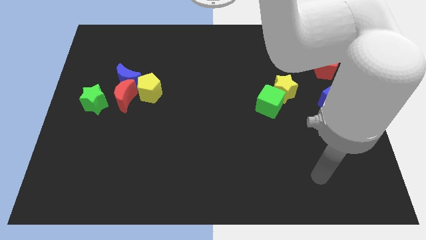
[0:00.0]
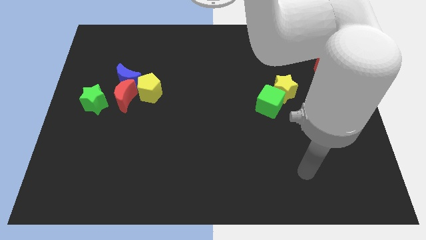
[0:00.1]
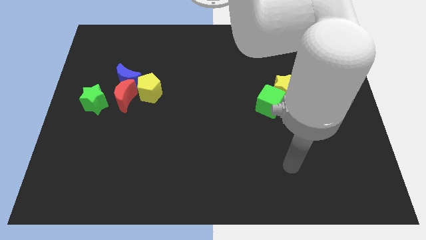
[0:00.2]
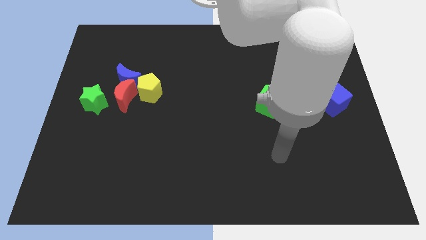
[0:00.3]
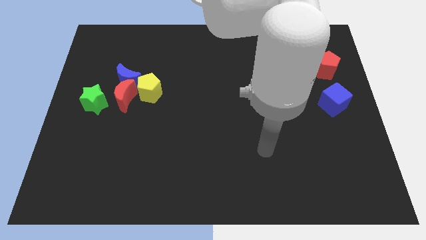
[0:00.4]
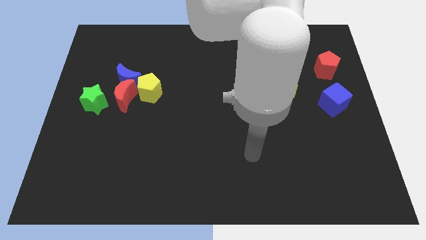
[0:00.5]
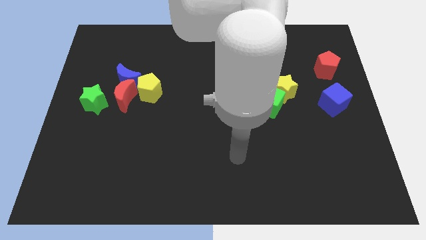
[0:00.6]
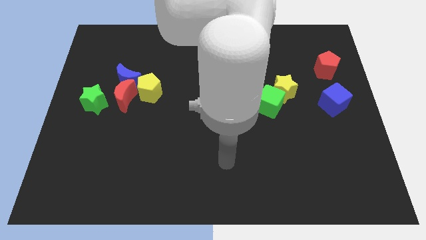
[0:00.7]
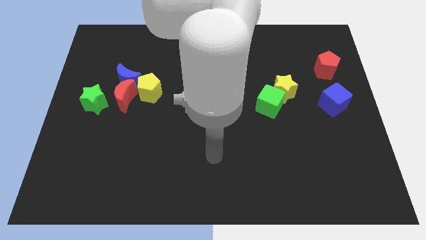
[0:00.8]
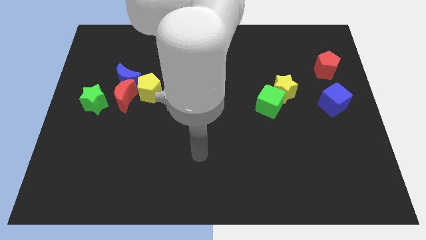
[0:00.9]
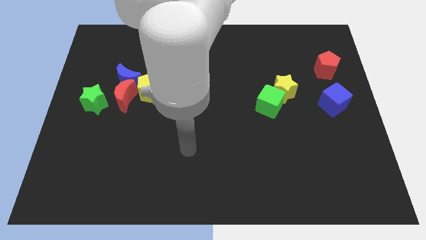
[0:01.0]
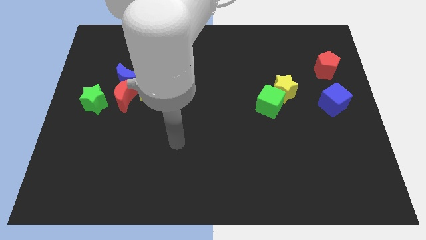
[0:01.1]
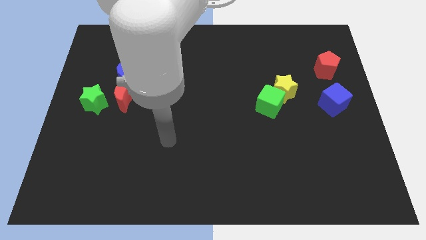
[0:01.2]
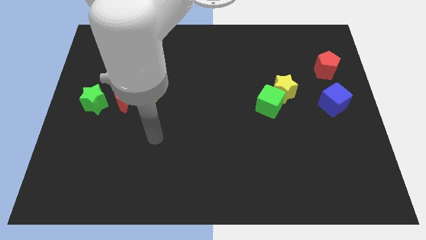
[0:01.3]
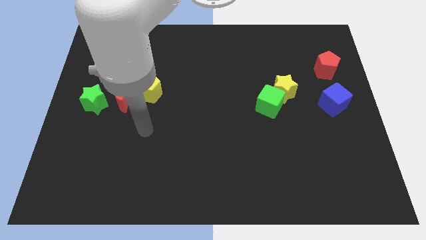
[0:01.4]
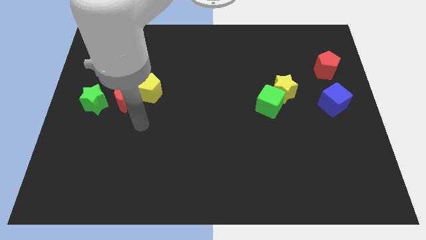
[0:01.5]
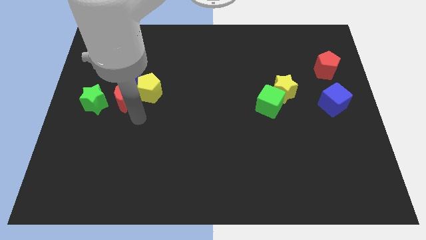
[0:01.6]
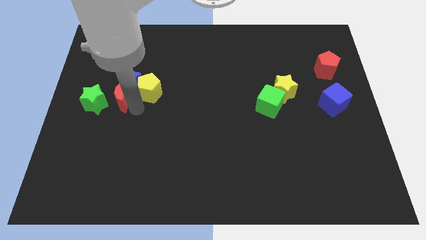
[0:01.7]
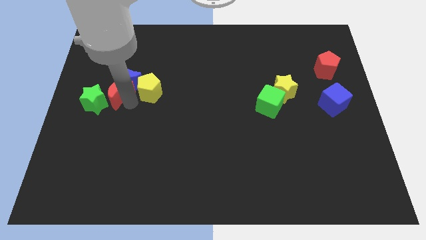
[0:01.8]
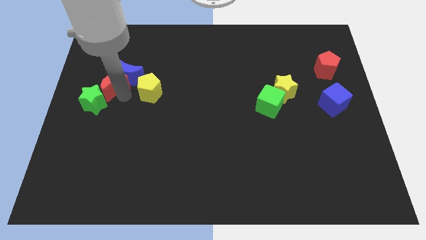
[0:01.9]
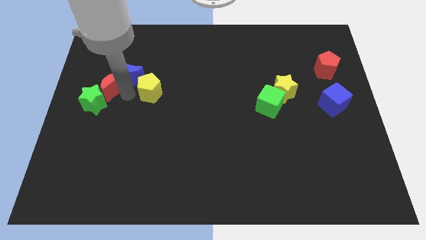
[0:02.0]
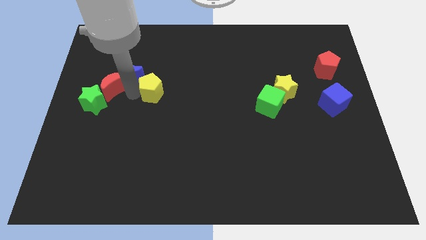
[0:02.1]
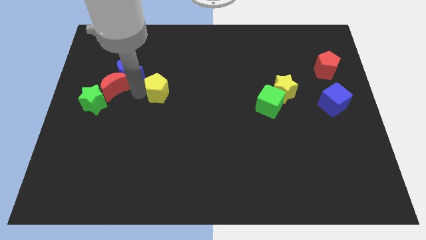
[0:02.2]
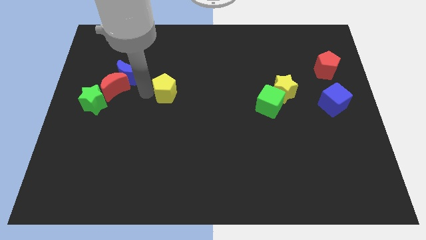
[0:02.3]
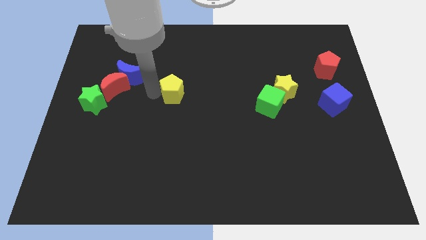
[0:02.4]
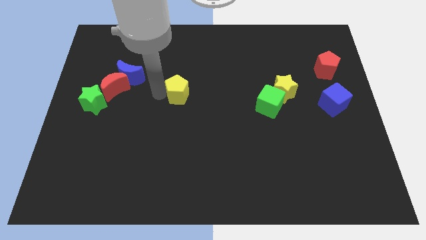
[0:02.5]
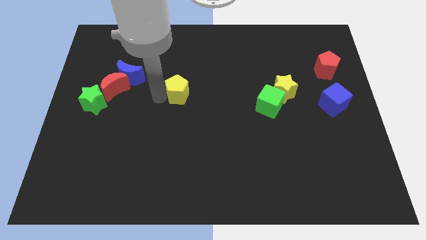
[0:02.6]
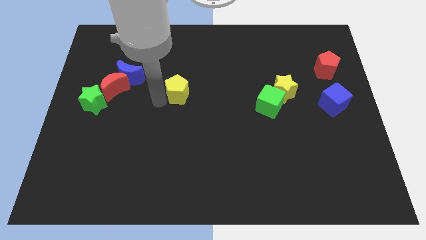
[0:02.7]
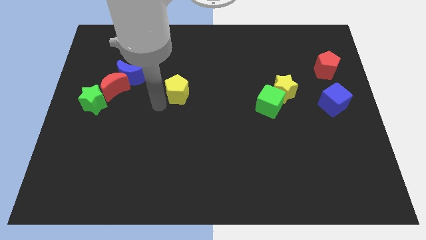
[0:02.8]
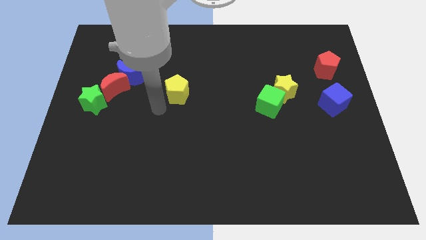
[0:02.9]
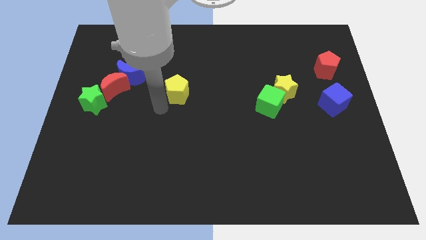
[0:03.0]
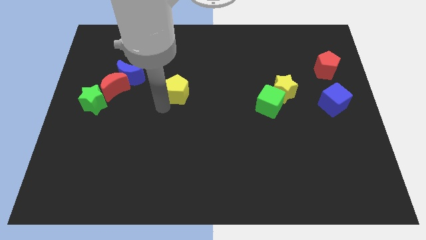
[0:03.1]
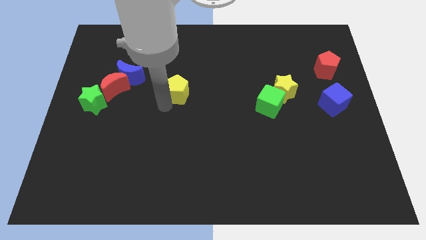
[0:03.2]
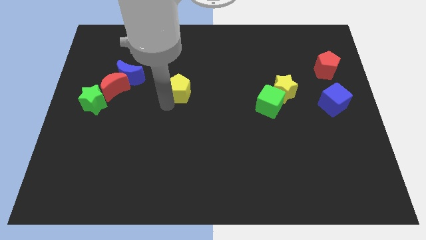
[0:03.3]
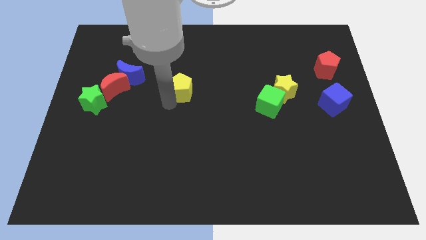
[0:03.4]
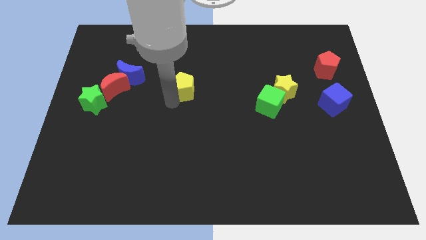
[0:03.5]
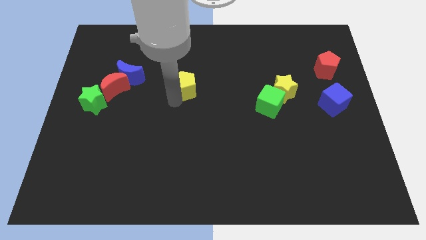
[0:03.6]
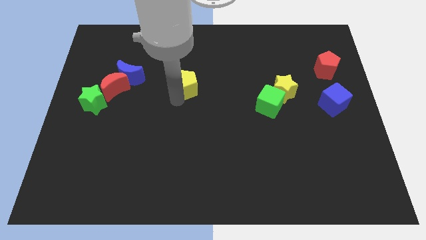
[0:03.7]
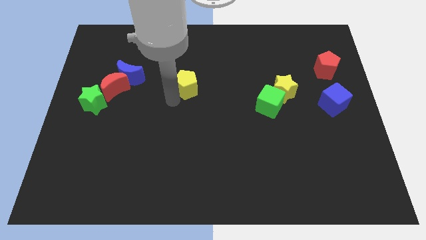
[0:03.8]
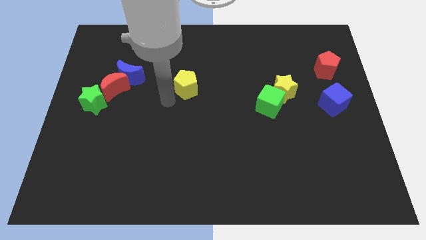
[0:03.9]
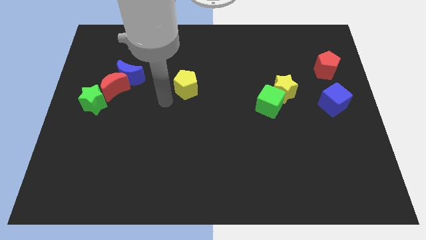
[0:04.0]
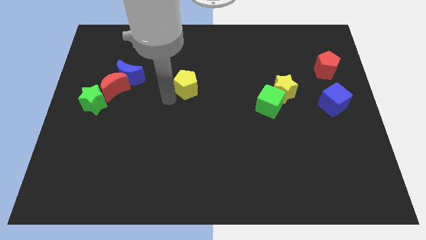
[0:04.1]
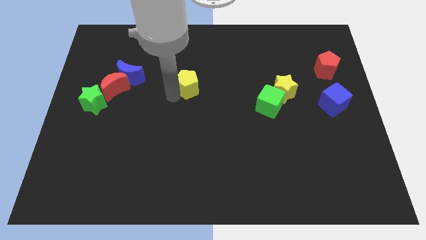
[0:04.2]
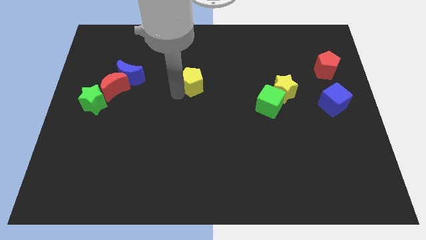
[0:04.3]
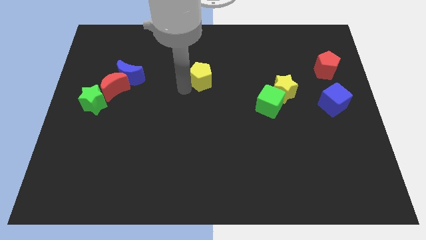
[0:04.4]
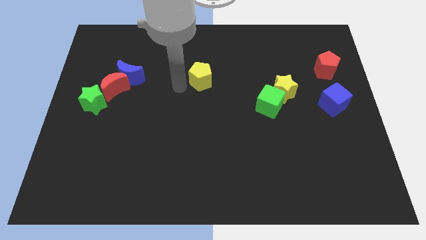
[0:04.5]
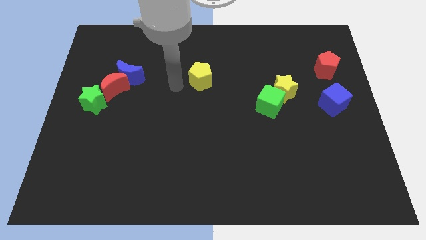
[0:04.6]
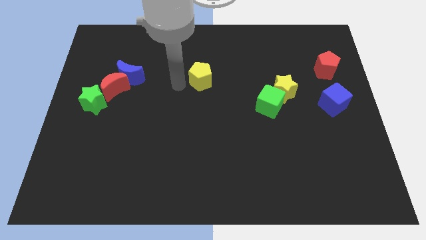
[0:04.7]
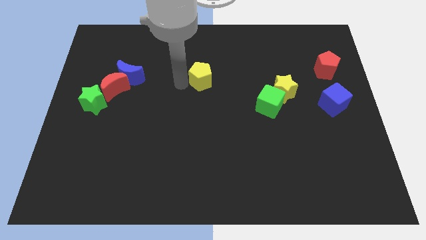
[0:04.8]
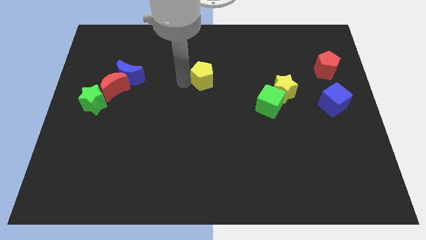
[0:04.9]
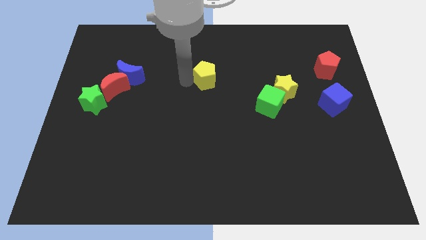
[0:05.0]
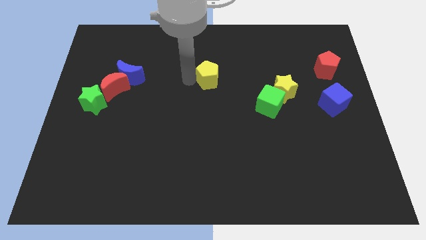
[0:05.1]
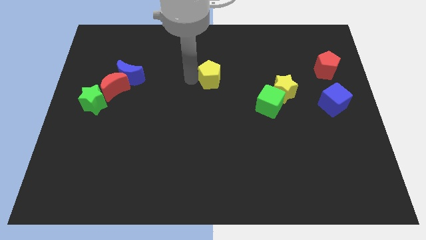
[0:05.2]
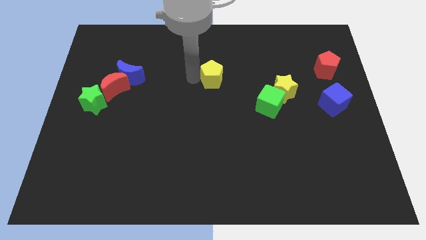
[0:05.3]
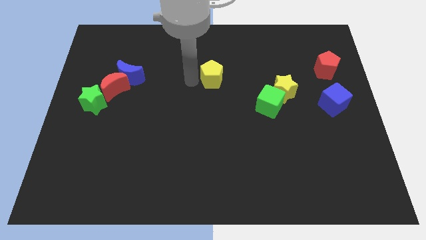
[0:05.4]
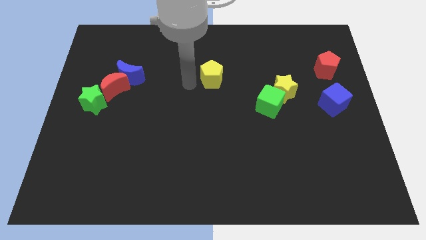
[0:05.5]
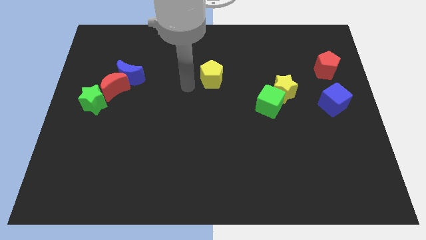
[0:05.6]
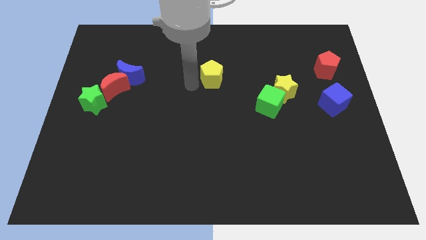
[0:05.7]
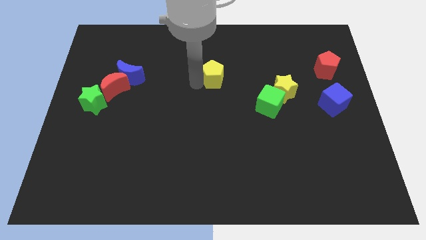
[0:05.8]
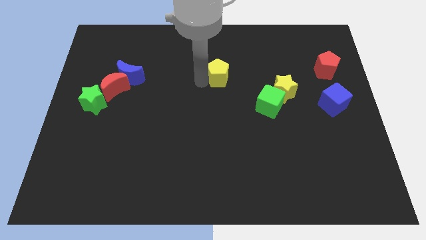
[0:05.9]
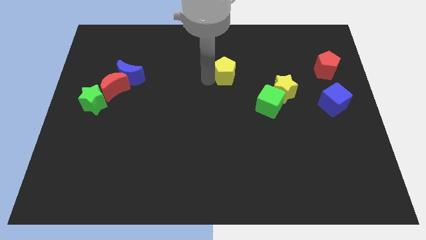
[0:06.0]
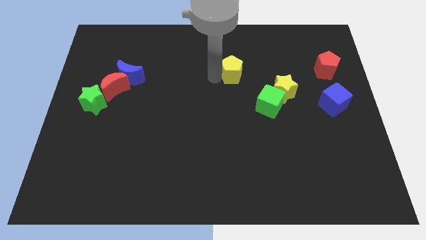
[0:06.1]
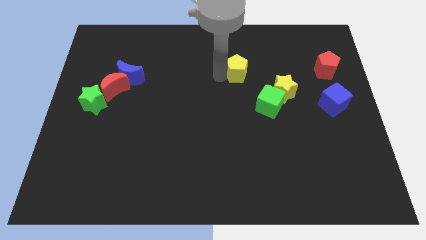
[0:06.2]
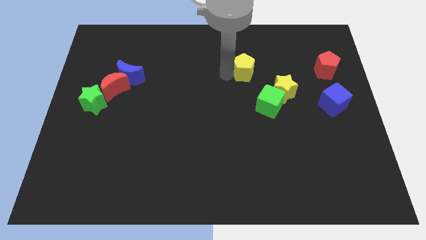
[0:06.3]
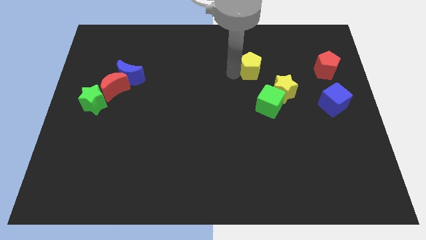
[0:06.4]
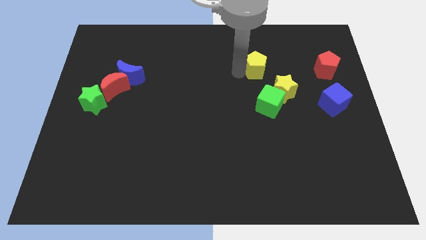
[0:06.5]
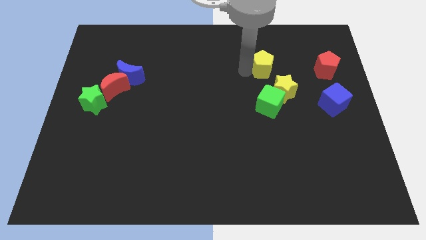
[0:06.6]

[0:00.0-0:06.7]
put the yellow pentagon above the yellow star

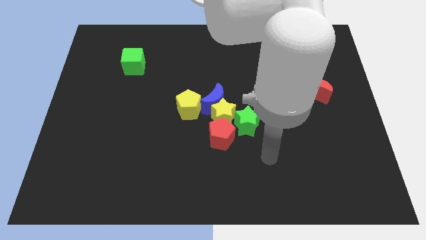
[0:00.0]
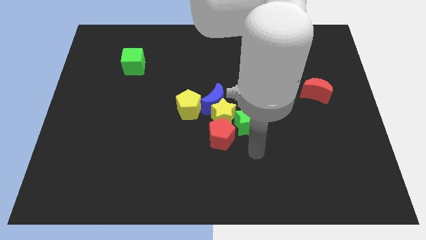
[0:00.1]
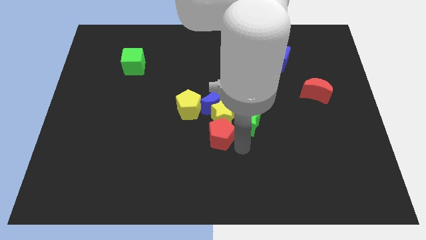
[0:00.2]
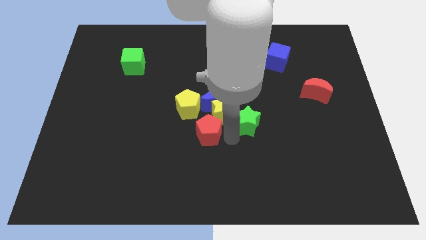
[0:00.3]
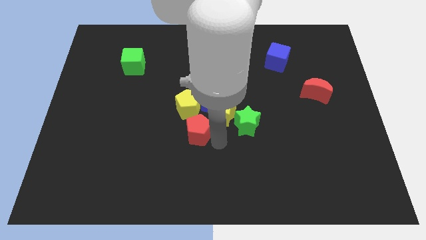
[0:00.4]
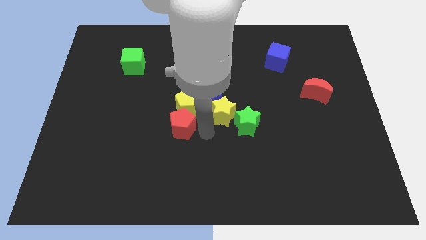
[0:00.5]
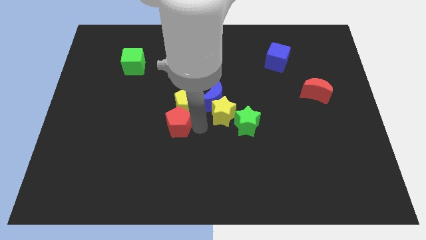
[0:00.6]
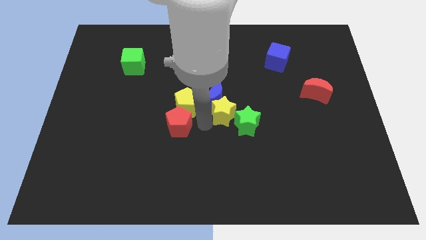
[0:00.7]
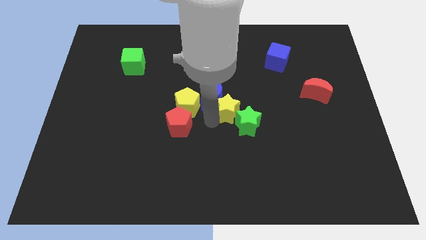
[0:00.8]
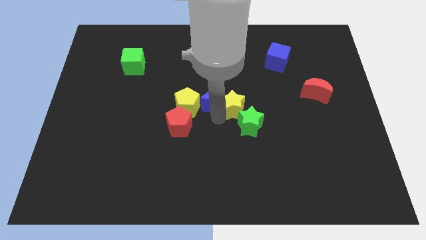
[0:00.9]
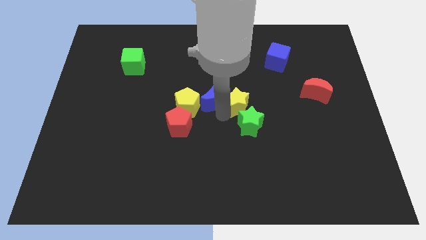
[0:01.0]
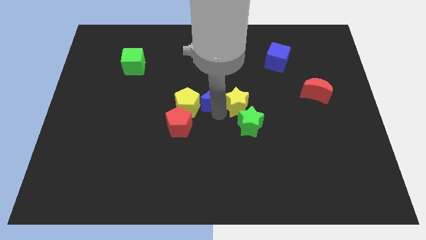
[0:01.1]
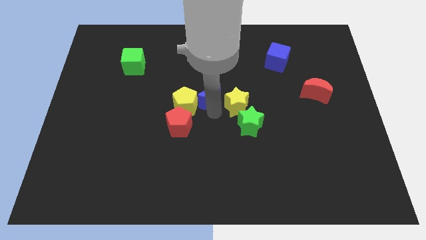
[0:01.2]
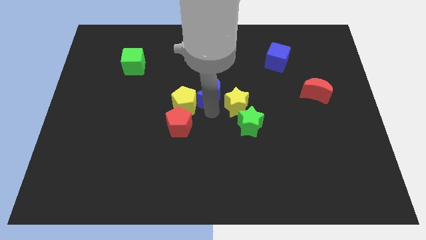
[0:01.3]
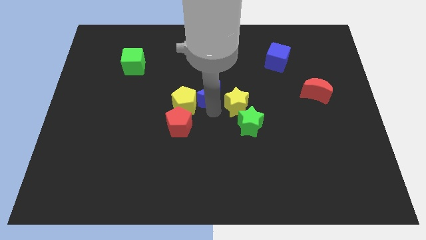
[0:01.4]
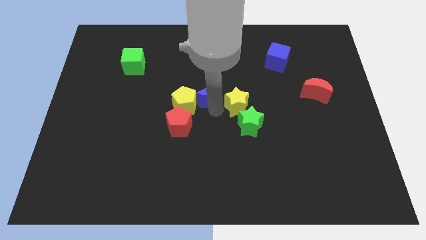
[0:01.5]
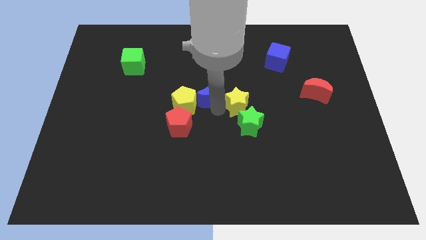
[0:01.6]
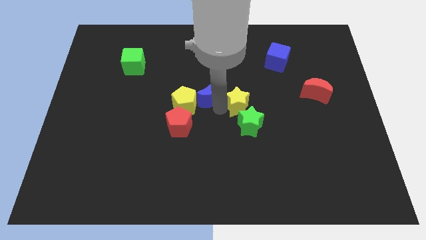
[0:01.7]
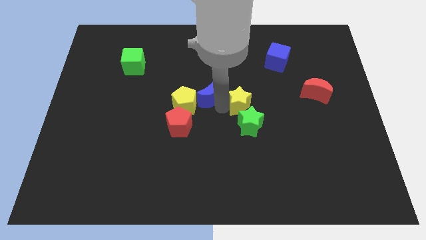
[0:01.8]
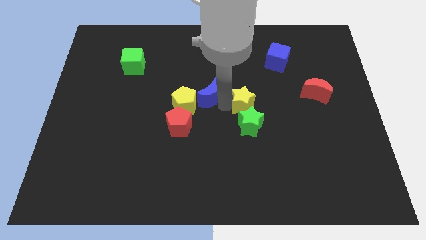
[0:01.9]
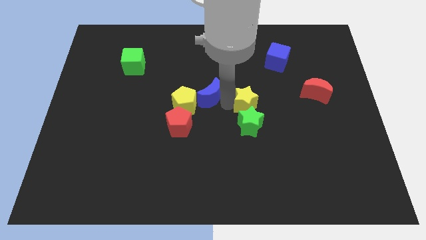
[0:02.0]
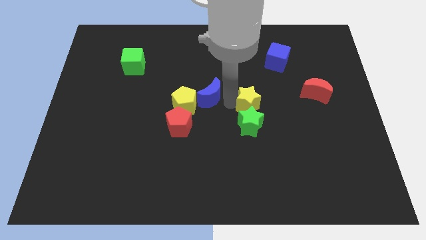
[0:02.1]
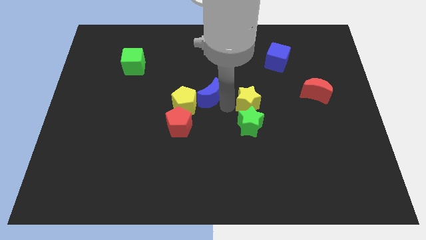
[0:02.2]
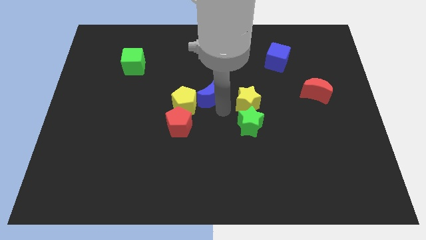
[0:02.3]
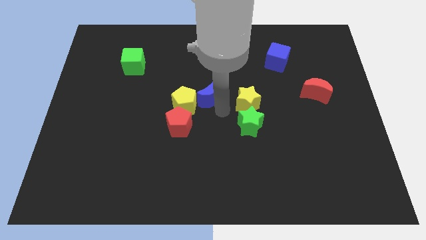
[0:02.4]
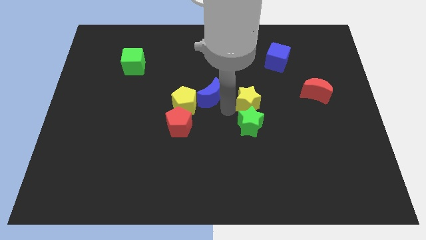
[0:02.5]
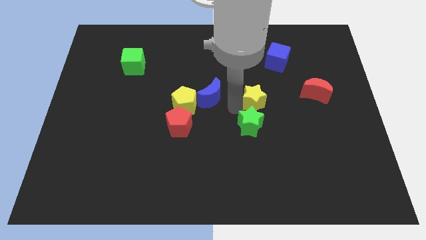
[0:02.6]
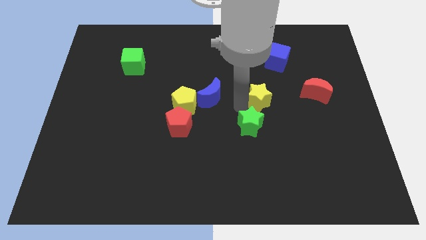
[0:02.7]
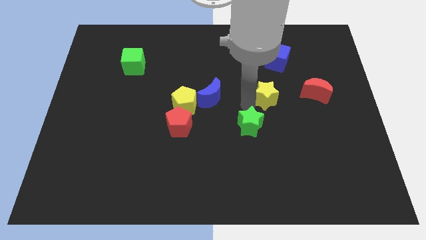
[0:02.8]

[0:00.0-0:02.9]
put the yellow star to the bottom side of the blue cube
